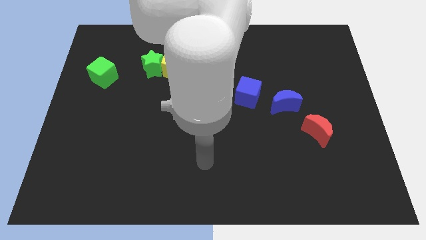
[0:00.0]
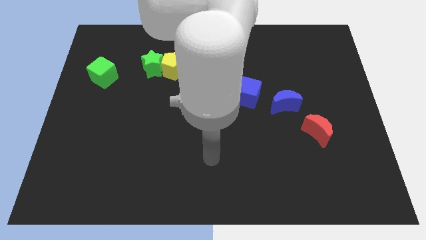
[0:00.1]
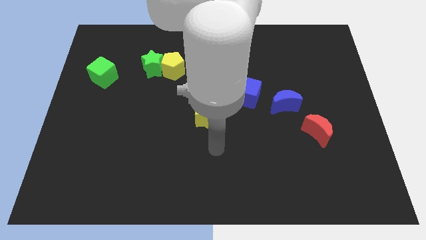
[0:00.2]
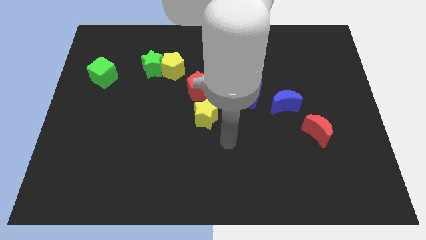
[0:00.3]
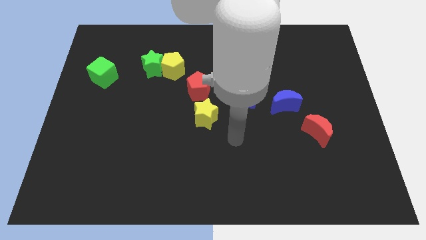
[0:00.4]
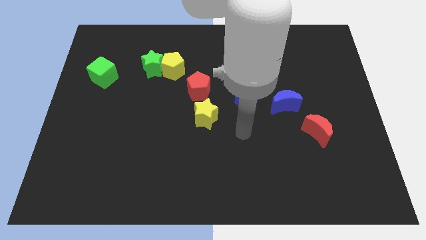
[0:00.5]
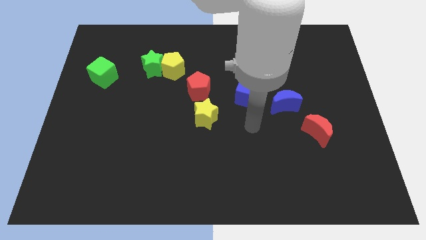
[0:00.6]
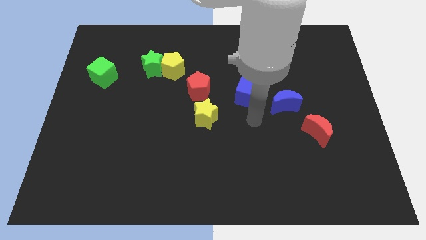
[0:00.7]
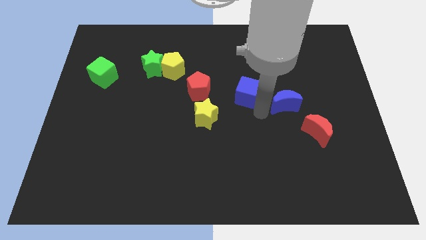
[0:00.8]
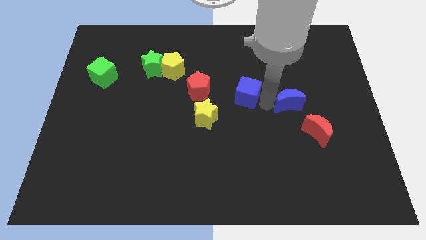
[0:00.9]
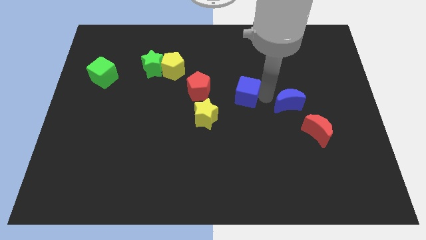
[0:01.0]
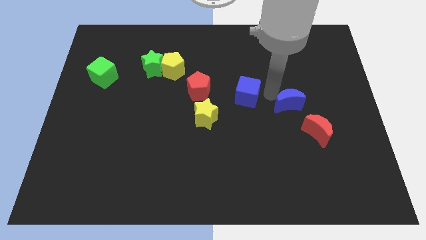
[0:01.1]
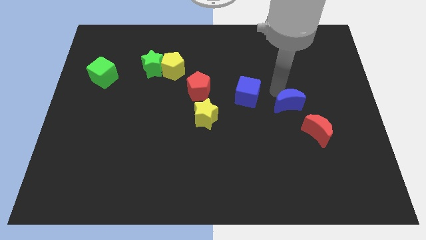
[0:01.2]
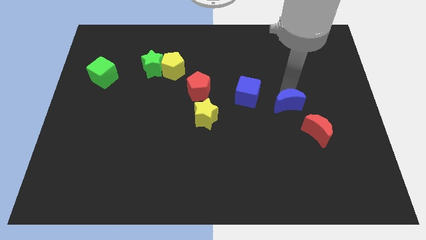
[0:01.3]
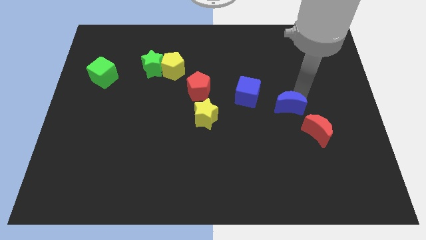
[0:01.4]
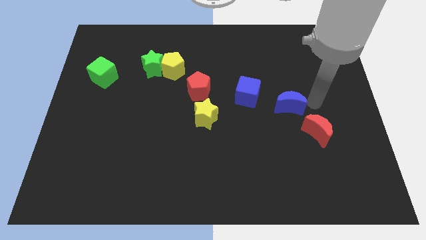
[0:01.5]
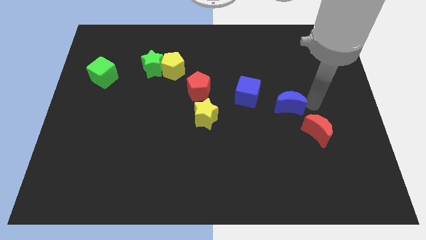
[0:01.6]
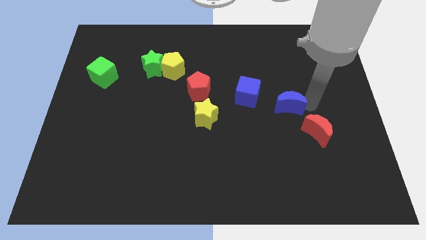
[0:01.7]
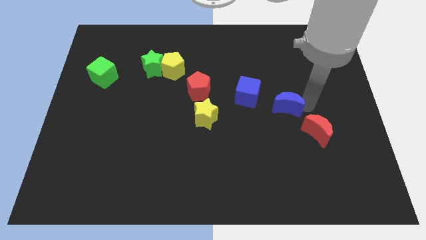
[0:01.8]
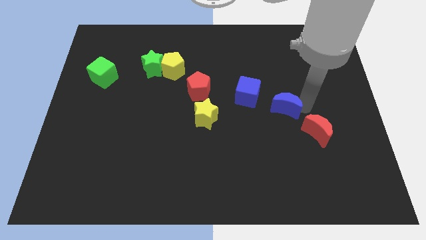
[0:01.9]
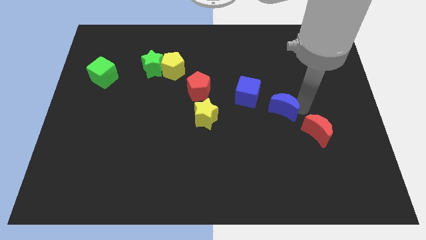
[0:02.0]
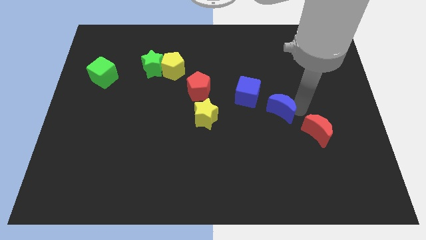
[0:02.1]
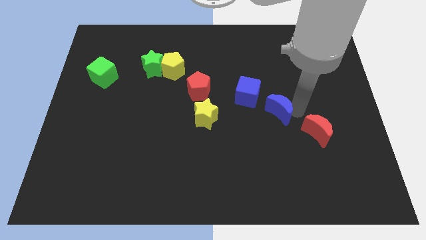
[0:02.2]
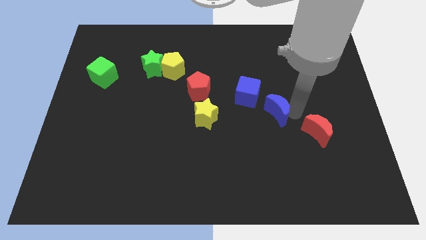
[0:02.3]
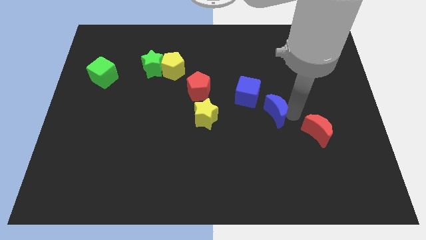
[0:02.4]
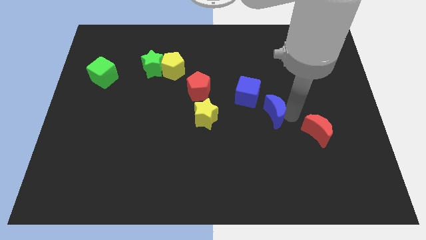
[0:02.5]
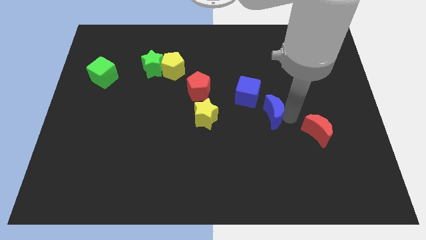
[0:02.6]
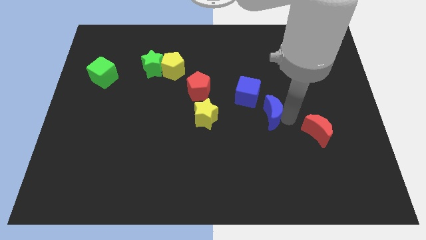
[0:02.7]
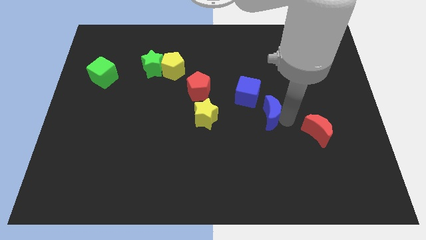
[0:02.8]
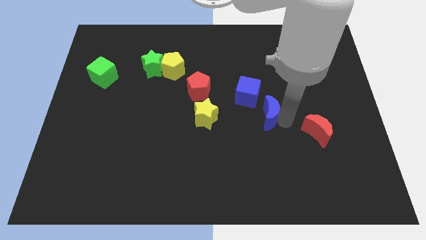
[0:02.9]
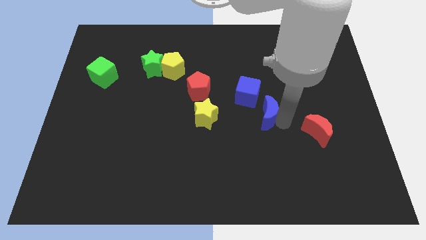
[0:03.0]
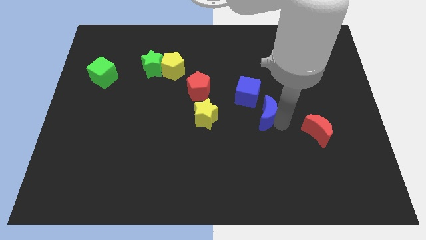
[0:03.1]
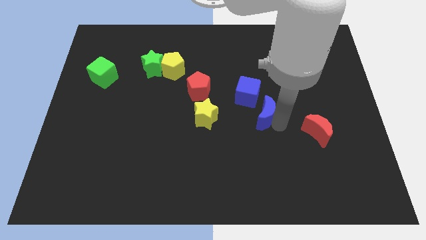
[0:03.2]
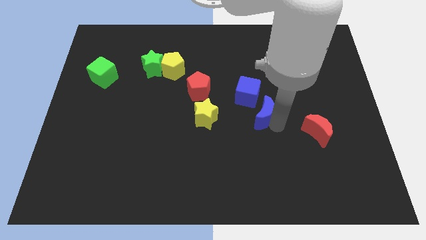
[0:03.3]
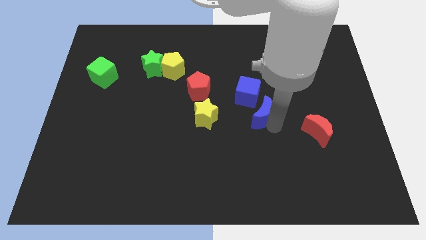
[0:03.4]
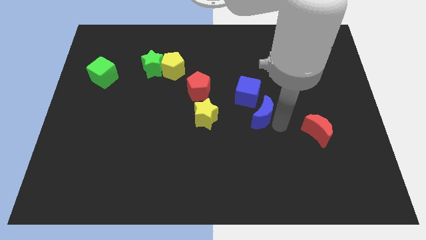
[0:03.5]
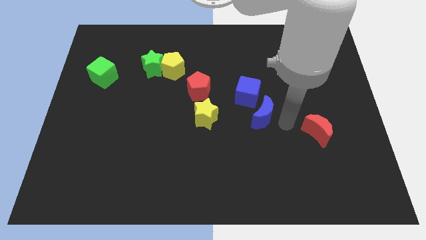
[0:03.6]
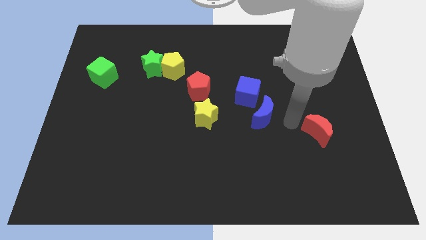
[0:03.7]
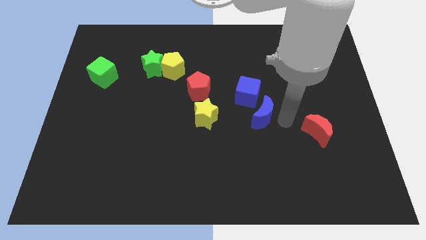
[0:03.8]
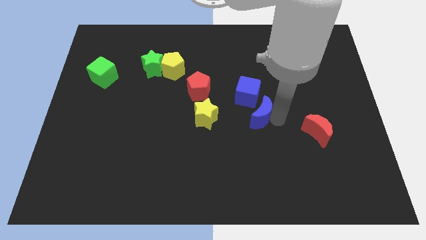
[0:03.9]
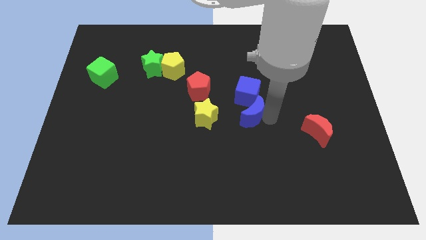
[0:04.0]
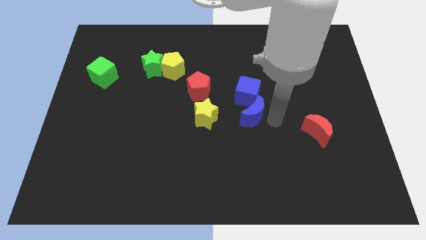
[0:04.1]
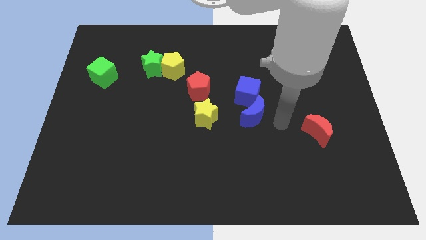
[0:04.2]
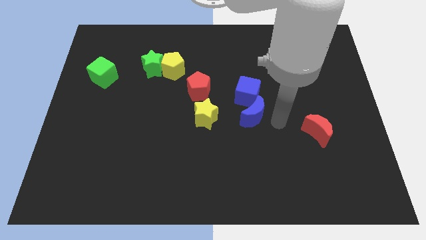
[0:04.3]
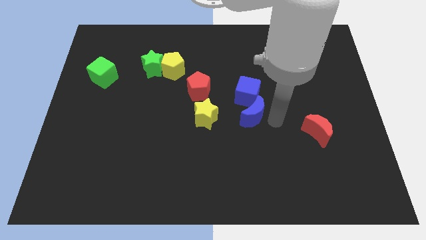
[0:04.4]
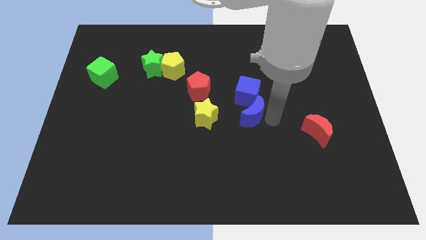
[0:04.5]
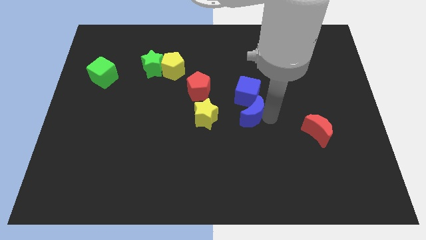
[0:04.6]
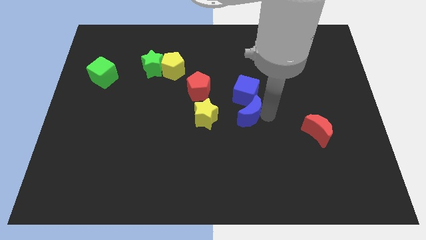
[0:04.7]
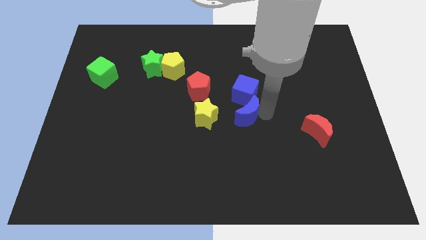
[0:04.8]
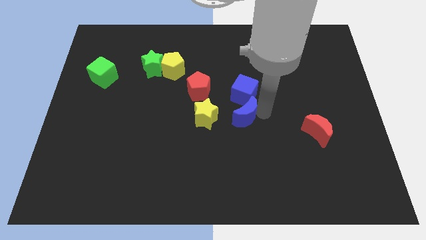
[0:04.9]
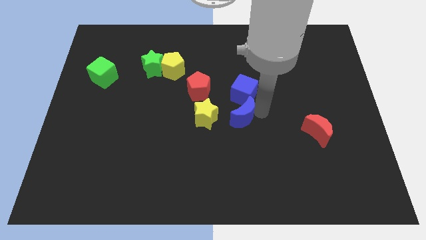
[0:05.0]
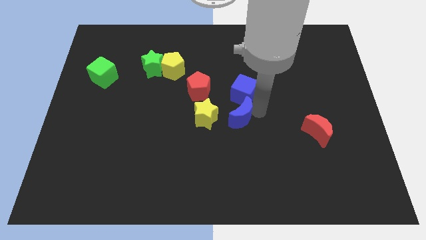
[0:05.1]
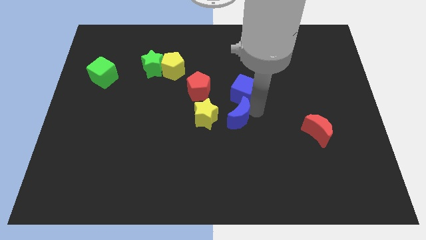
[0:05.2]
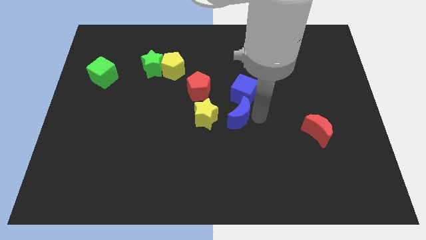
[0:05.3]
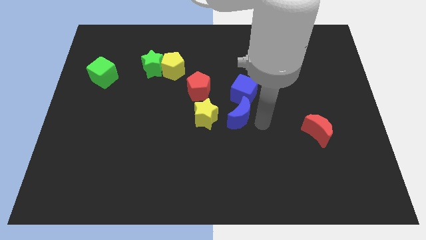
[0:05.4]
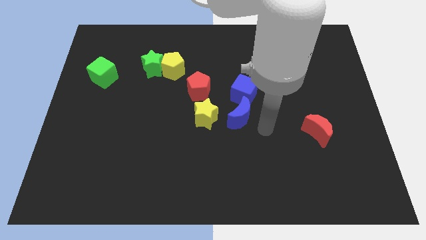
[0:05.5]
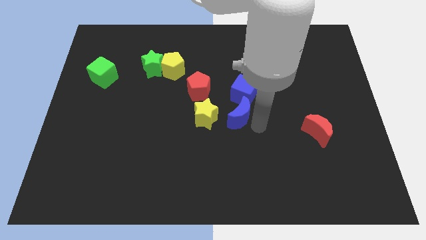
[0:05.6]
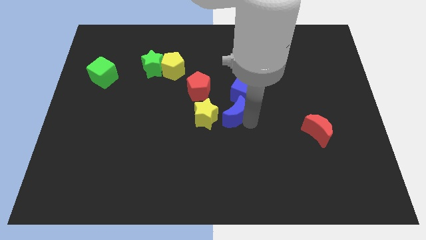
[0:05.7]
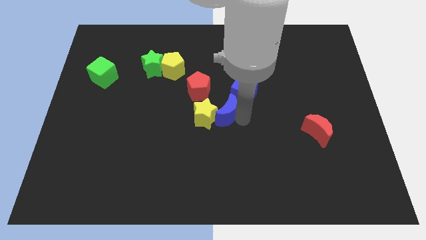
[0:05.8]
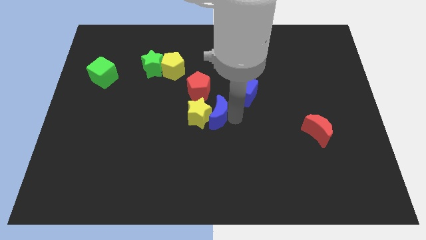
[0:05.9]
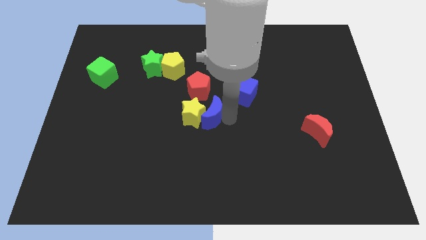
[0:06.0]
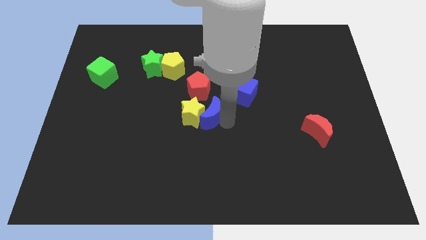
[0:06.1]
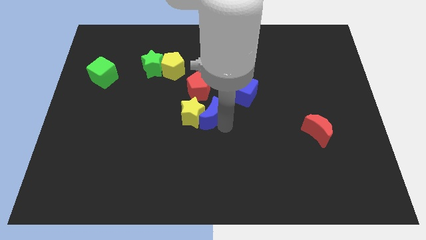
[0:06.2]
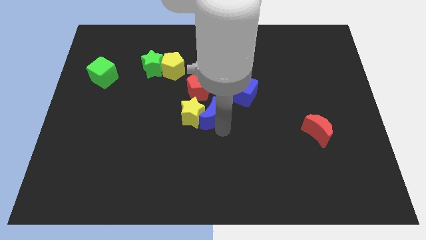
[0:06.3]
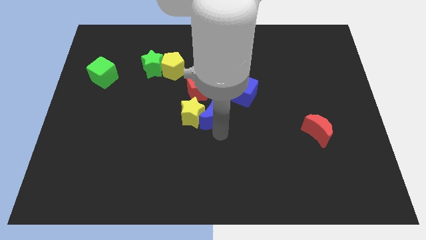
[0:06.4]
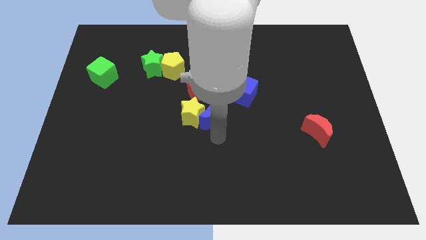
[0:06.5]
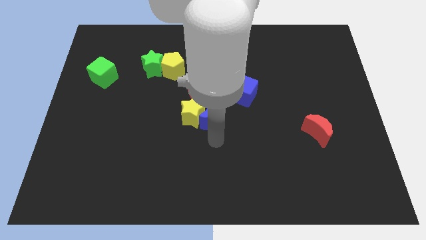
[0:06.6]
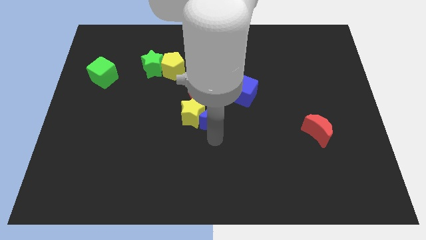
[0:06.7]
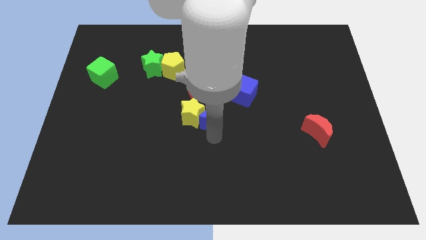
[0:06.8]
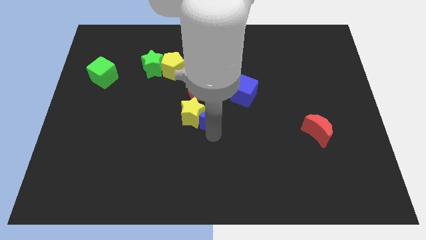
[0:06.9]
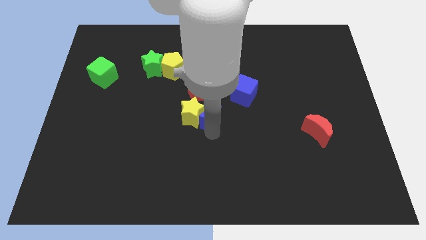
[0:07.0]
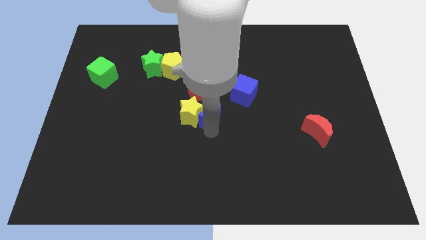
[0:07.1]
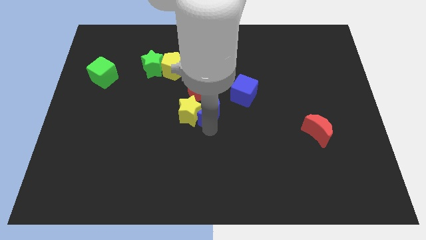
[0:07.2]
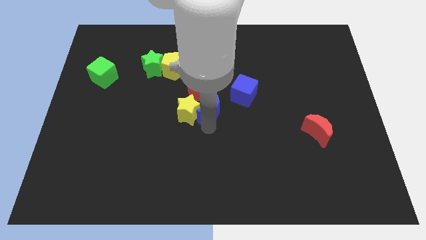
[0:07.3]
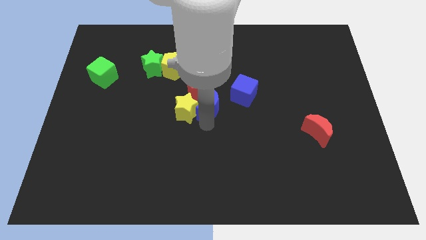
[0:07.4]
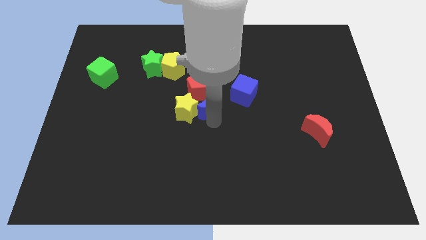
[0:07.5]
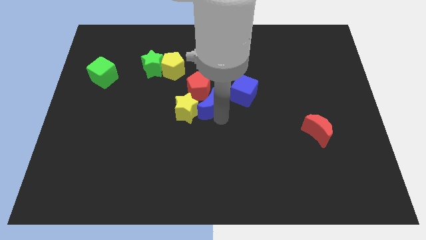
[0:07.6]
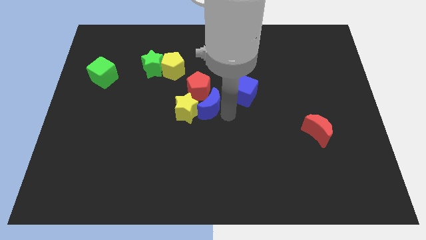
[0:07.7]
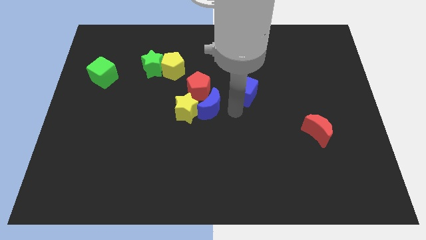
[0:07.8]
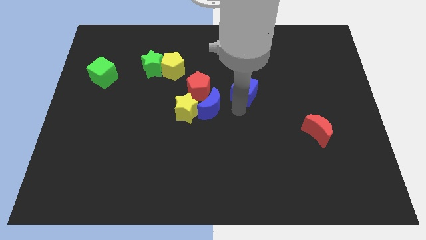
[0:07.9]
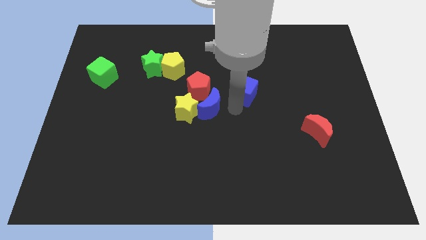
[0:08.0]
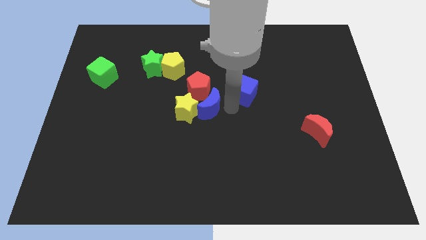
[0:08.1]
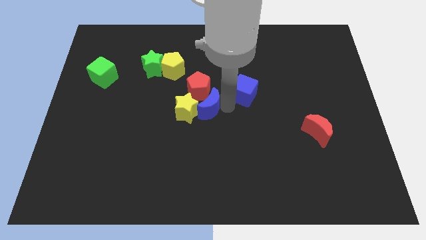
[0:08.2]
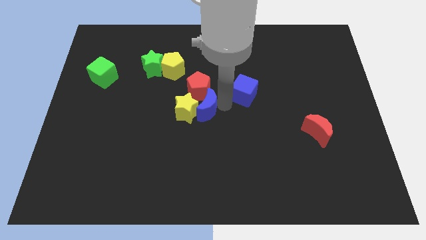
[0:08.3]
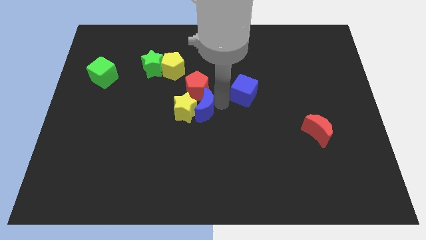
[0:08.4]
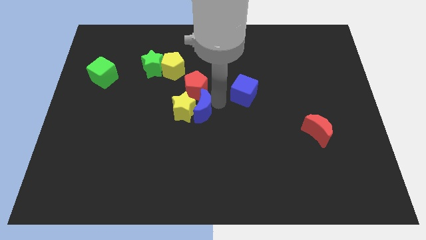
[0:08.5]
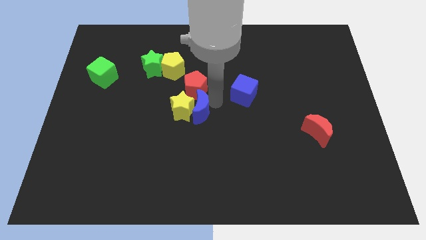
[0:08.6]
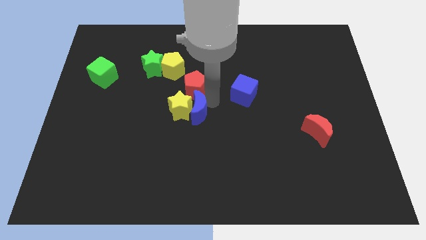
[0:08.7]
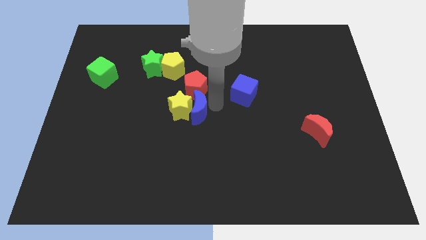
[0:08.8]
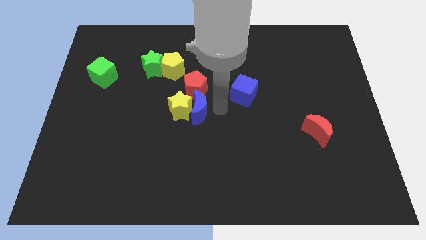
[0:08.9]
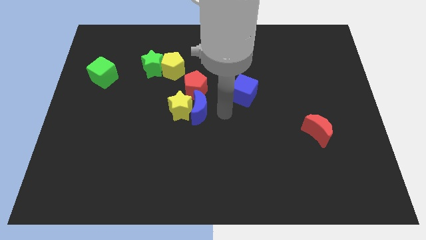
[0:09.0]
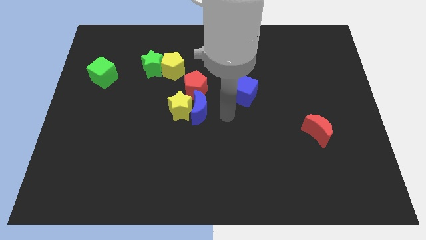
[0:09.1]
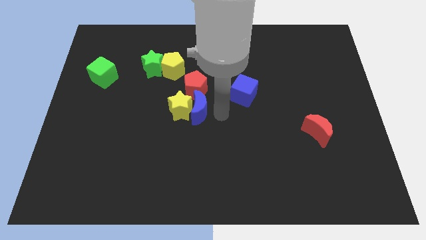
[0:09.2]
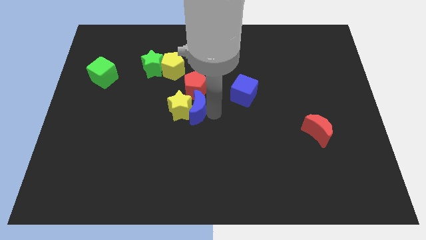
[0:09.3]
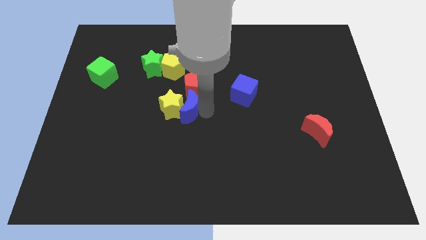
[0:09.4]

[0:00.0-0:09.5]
push the blue moon to the bottom left side of the red pentagon
